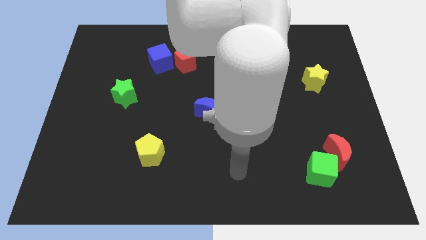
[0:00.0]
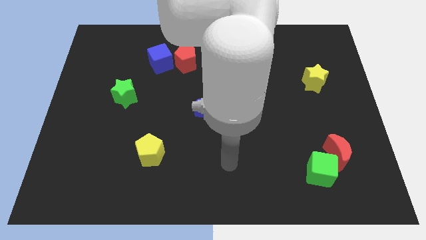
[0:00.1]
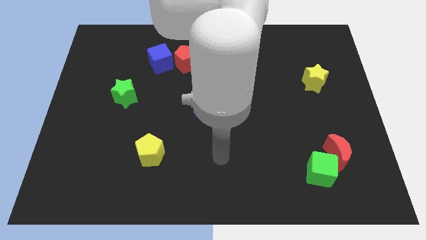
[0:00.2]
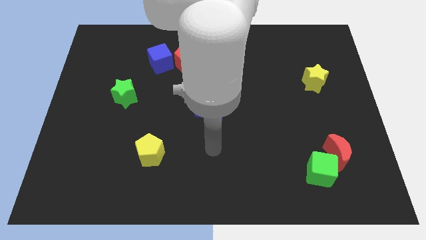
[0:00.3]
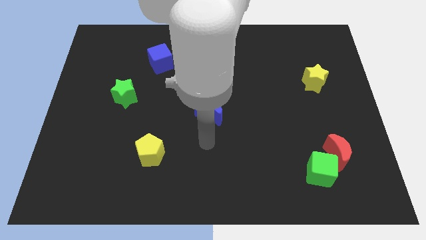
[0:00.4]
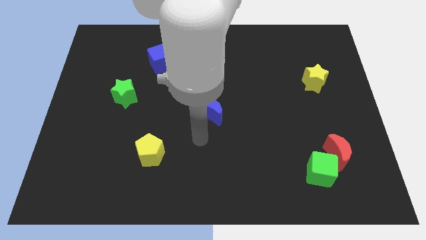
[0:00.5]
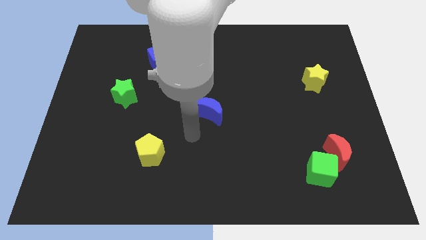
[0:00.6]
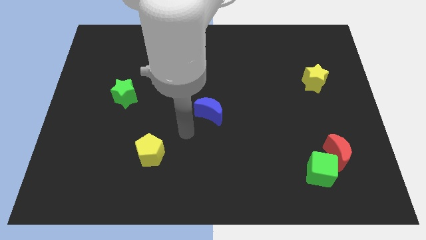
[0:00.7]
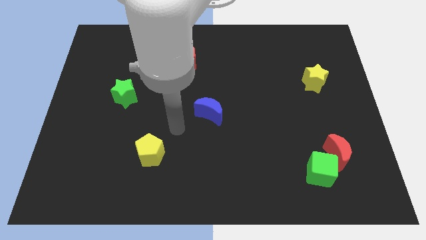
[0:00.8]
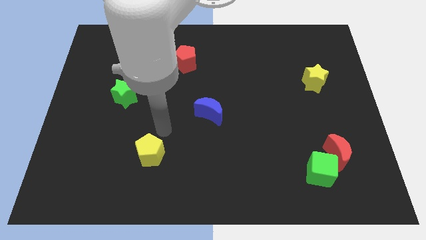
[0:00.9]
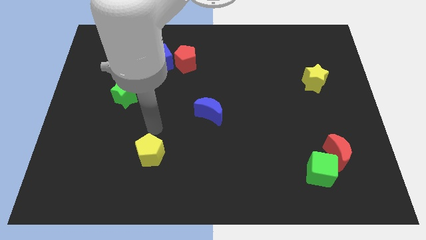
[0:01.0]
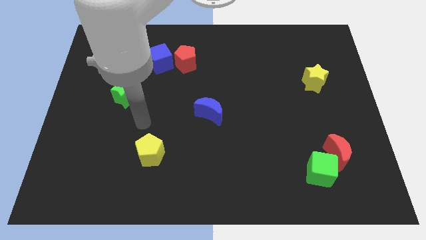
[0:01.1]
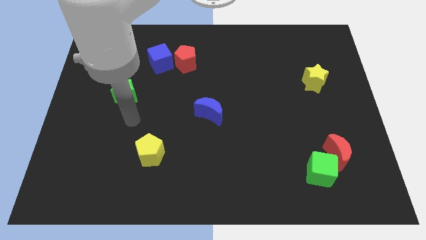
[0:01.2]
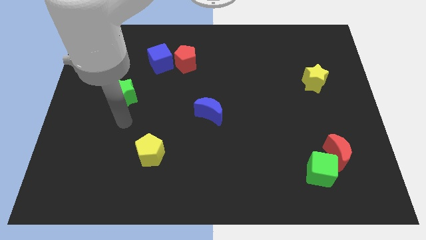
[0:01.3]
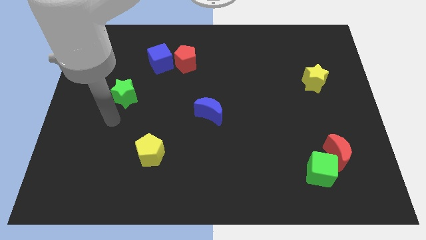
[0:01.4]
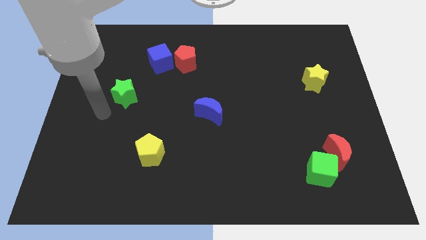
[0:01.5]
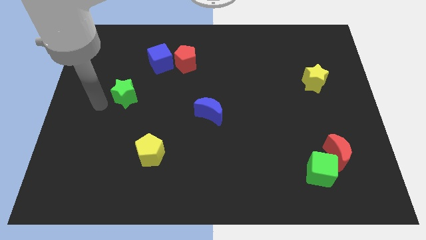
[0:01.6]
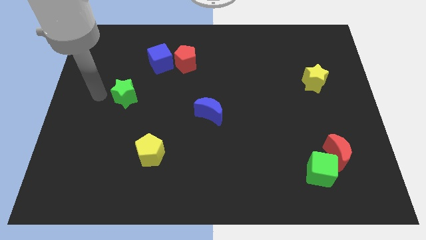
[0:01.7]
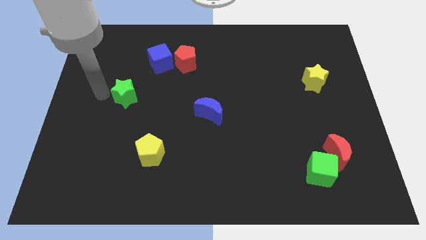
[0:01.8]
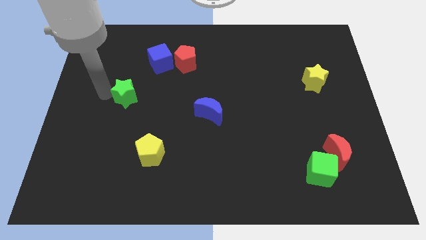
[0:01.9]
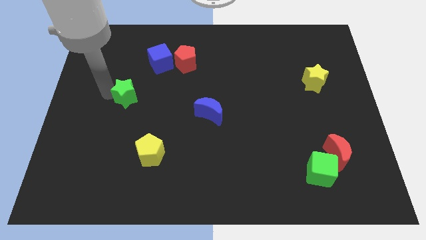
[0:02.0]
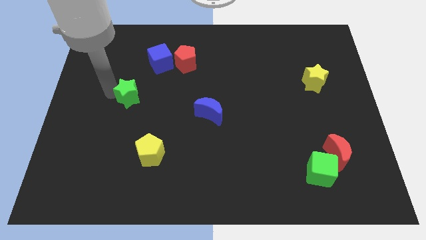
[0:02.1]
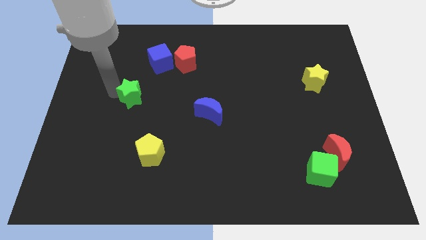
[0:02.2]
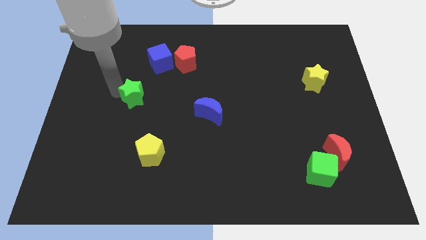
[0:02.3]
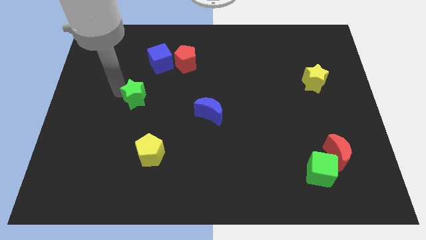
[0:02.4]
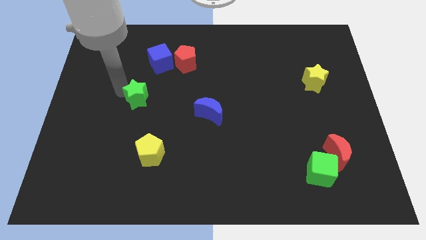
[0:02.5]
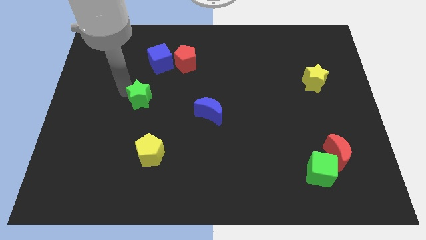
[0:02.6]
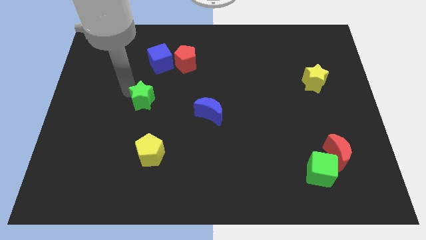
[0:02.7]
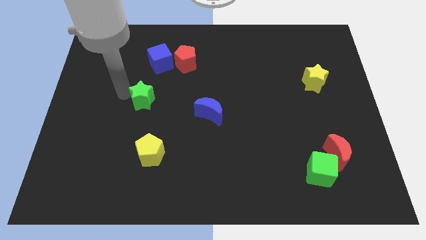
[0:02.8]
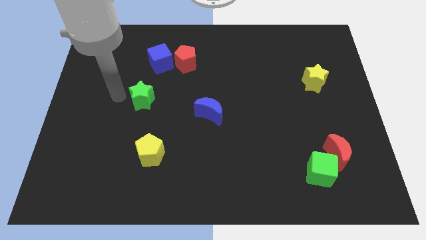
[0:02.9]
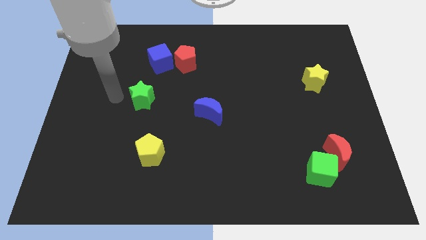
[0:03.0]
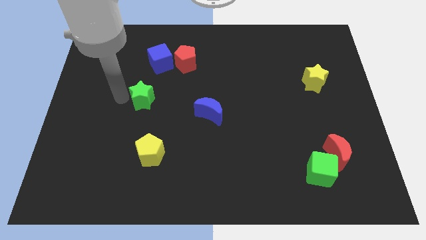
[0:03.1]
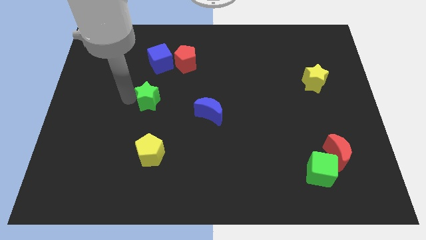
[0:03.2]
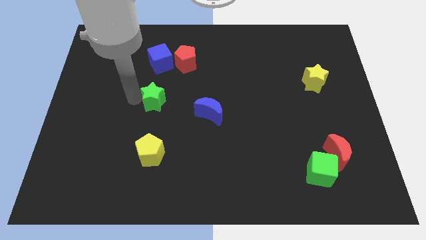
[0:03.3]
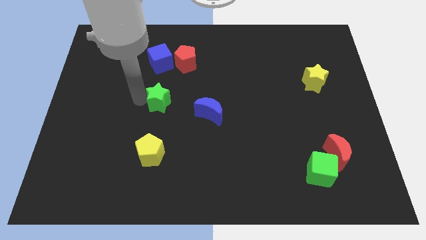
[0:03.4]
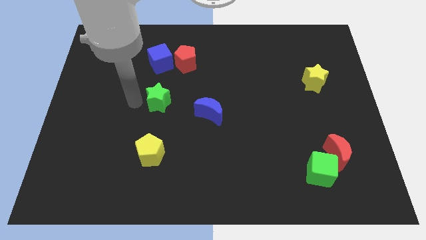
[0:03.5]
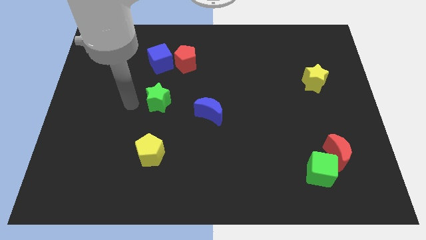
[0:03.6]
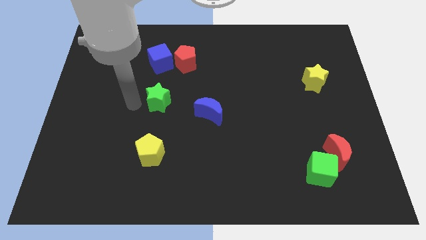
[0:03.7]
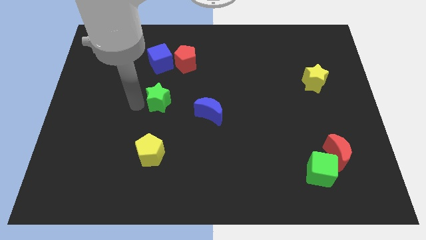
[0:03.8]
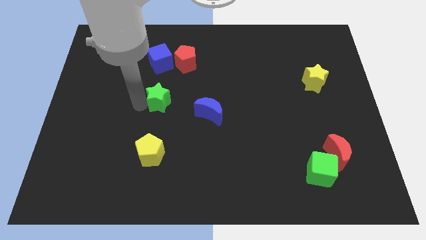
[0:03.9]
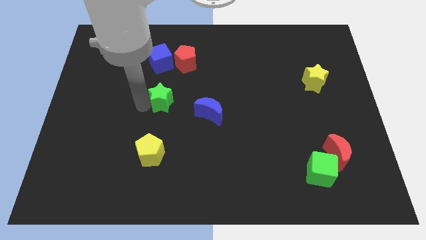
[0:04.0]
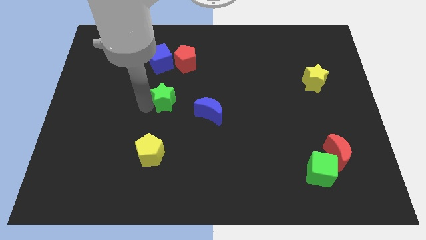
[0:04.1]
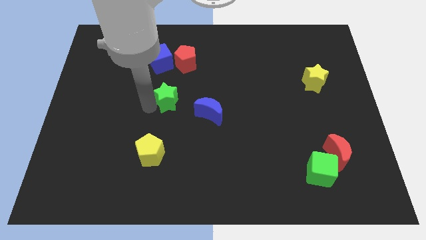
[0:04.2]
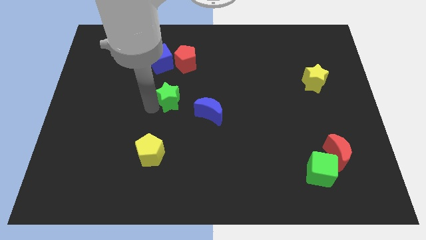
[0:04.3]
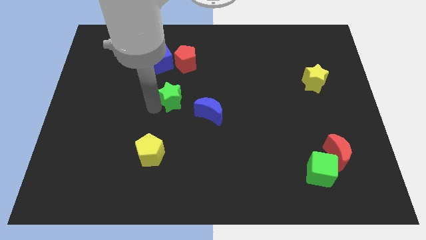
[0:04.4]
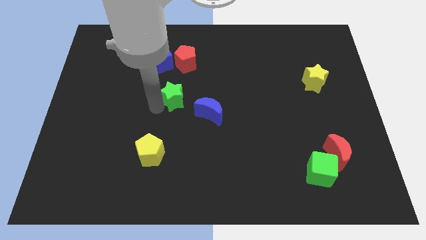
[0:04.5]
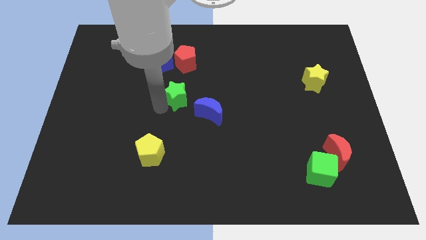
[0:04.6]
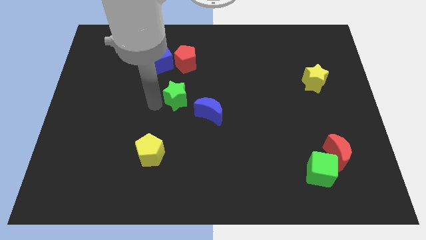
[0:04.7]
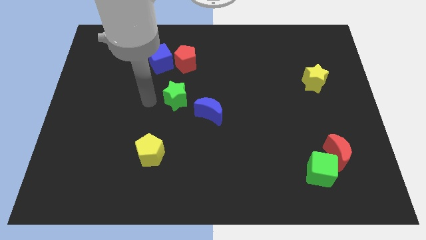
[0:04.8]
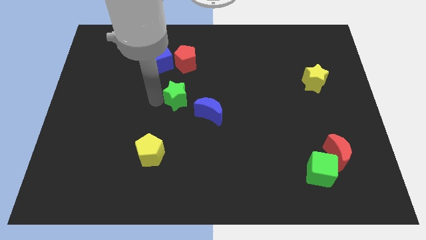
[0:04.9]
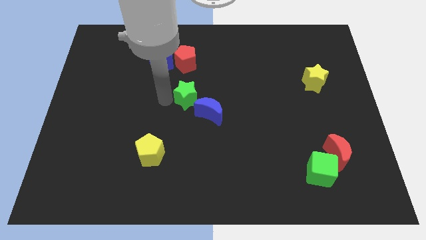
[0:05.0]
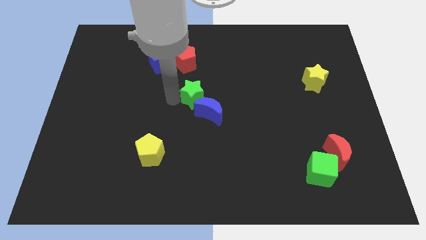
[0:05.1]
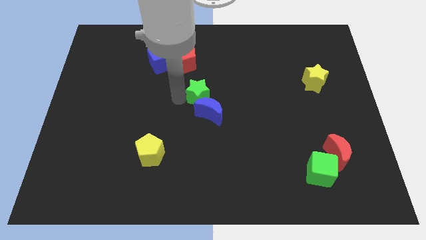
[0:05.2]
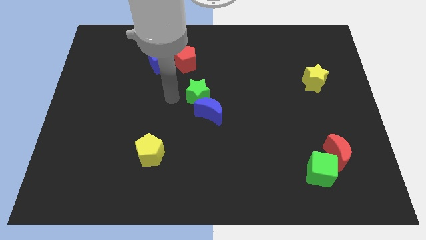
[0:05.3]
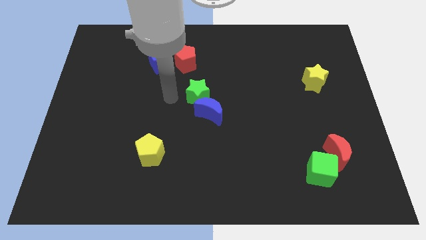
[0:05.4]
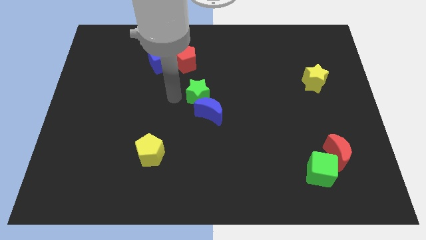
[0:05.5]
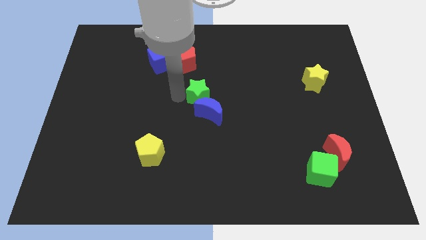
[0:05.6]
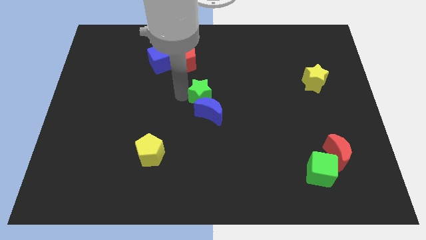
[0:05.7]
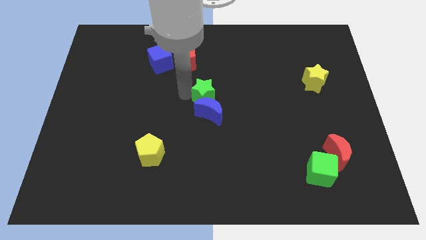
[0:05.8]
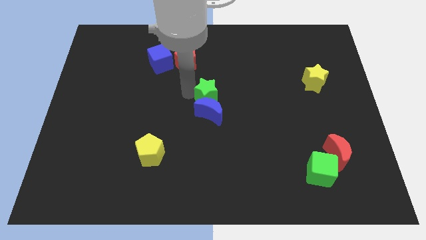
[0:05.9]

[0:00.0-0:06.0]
slide the green star right

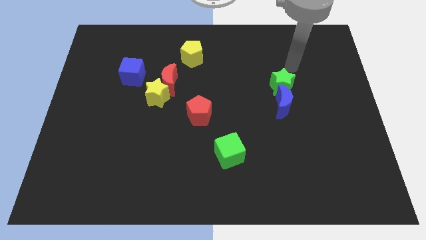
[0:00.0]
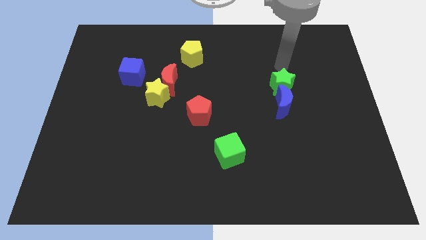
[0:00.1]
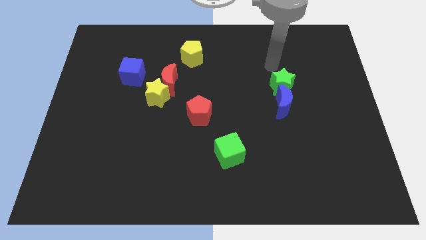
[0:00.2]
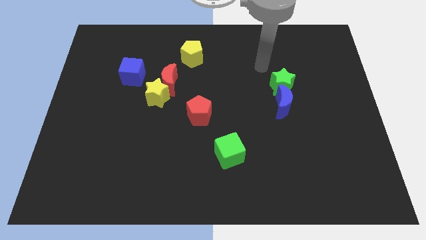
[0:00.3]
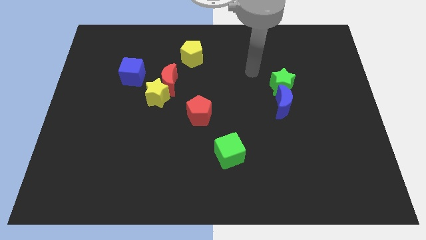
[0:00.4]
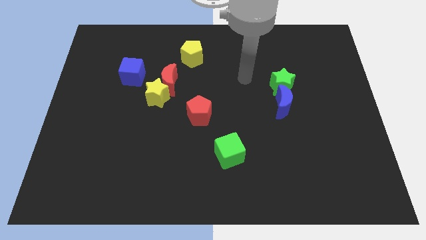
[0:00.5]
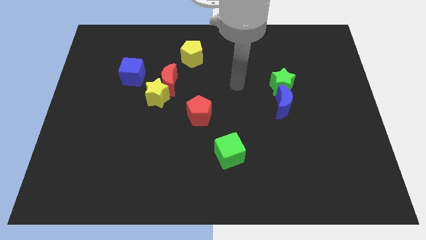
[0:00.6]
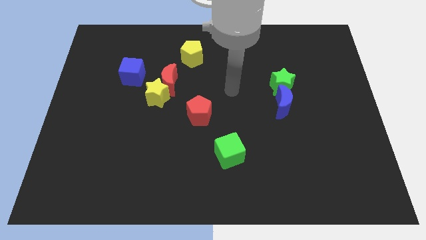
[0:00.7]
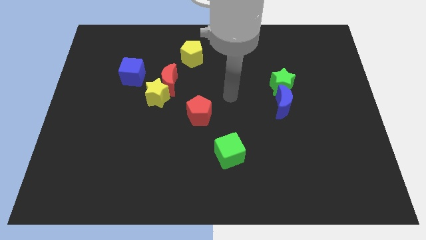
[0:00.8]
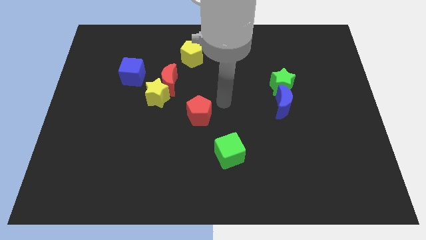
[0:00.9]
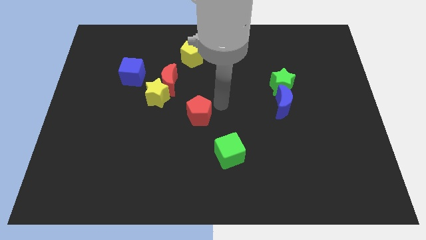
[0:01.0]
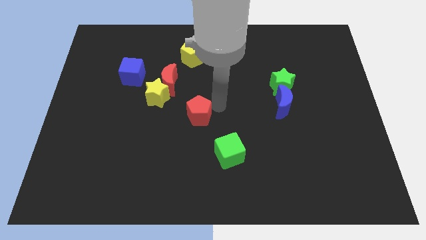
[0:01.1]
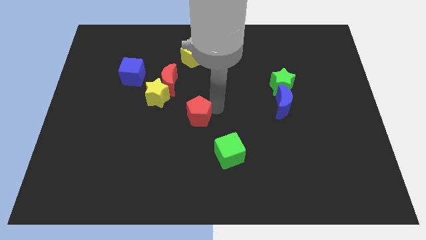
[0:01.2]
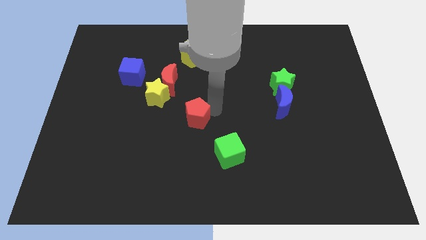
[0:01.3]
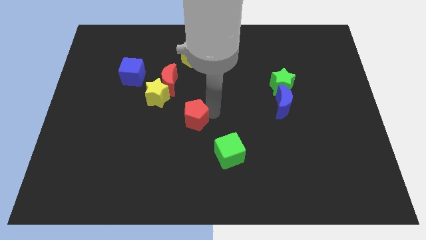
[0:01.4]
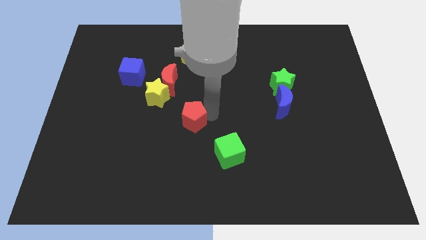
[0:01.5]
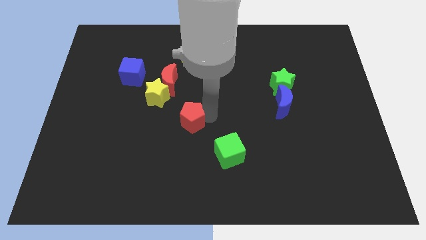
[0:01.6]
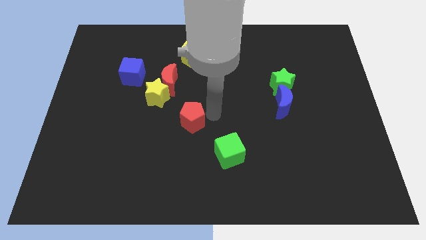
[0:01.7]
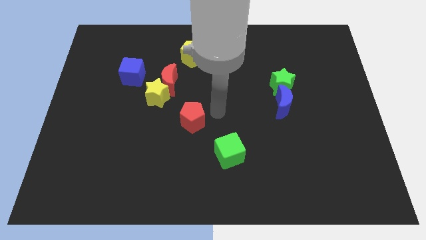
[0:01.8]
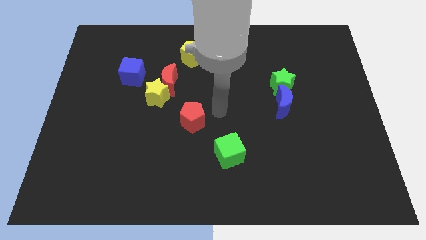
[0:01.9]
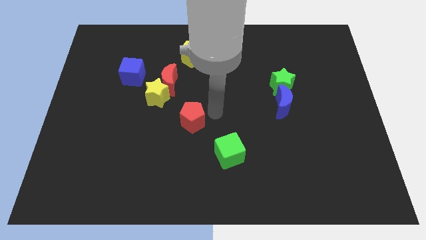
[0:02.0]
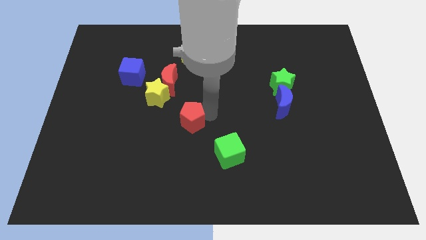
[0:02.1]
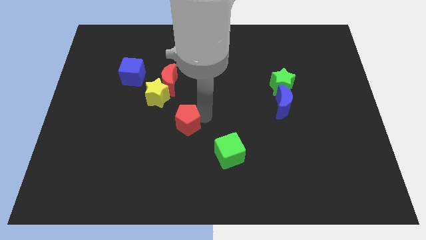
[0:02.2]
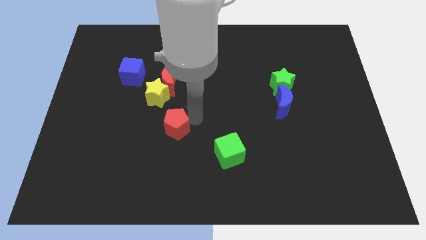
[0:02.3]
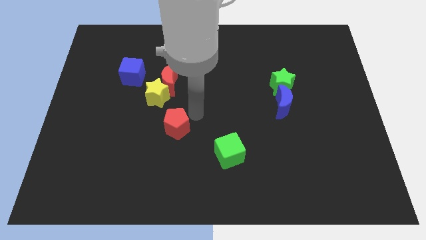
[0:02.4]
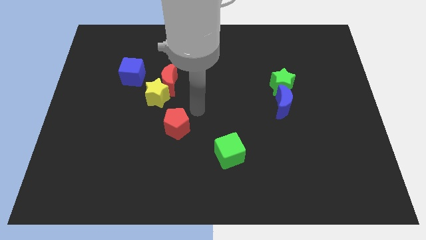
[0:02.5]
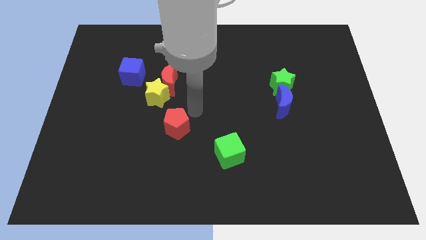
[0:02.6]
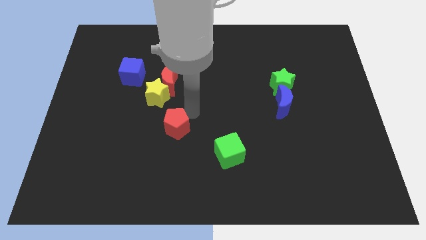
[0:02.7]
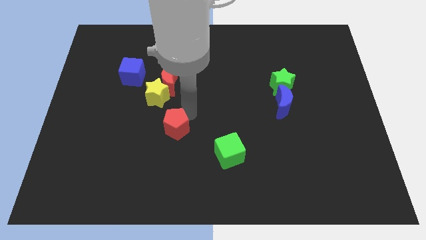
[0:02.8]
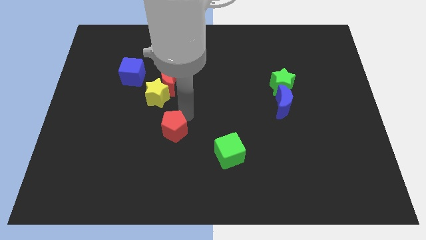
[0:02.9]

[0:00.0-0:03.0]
push the red pentagon a little diagonally down and to the left
